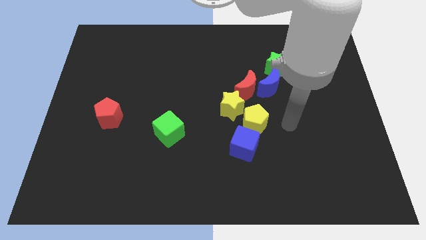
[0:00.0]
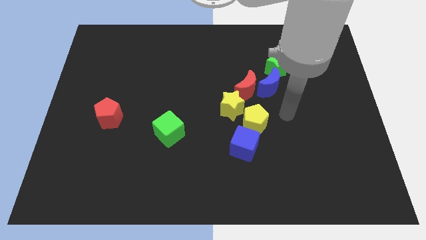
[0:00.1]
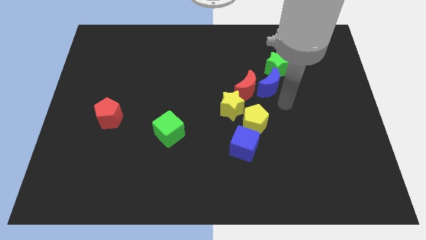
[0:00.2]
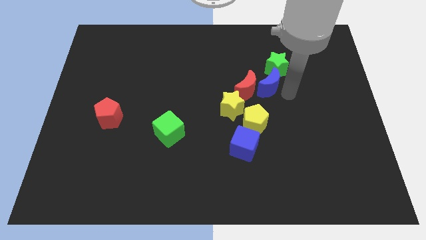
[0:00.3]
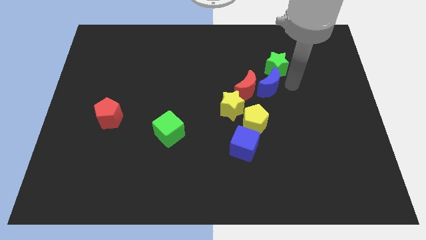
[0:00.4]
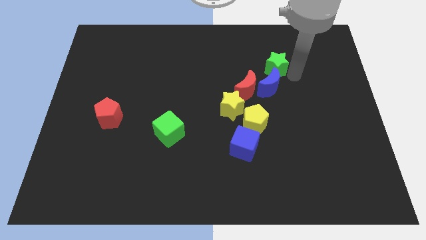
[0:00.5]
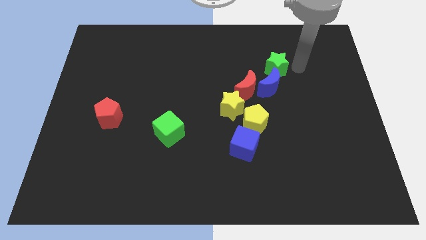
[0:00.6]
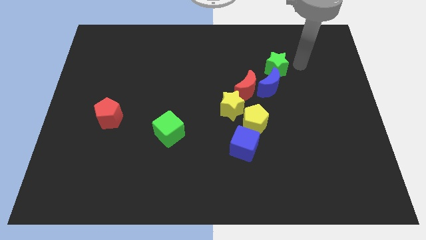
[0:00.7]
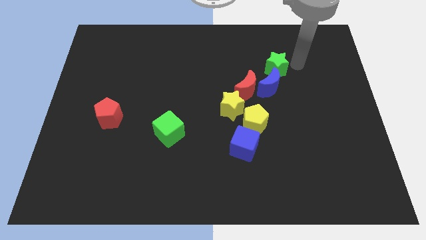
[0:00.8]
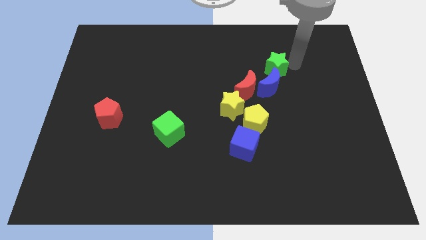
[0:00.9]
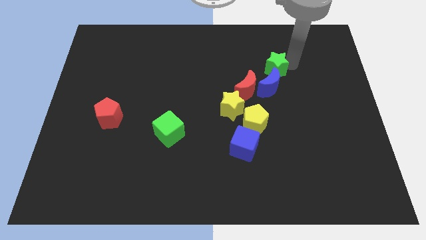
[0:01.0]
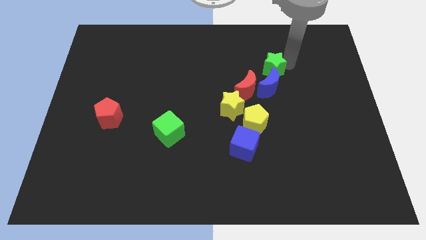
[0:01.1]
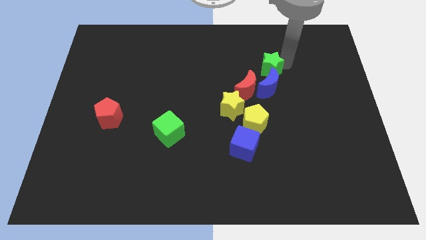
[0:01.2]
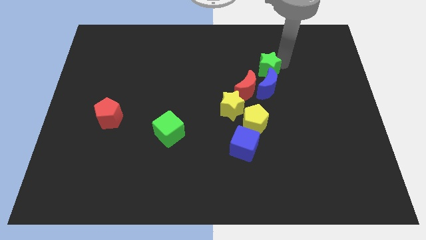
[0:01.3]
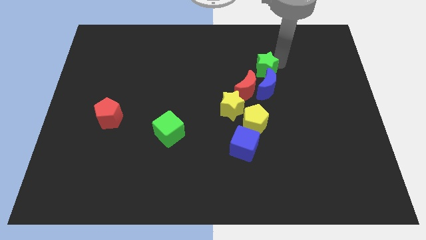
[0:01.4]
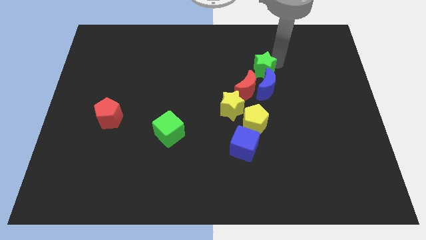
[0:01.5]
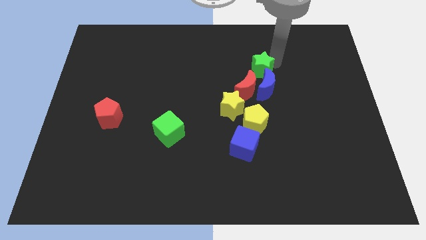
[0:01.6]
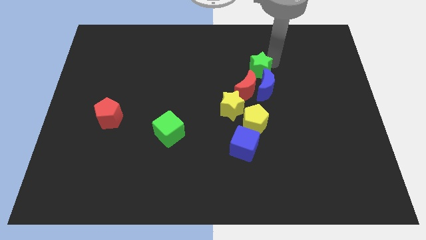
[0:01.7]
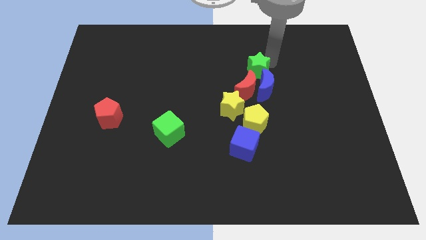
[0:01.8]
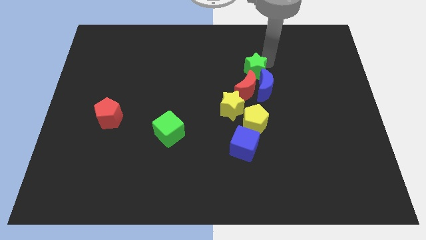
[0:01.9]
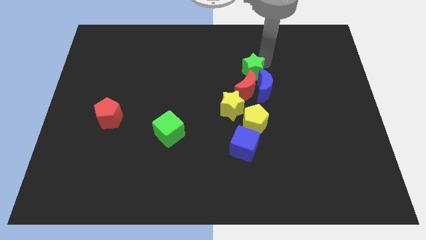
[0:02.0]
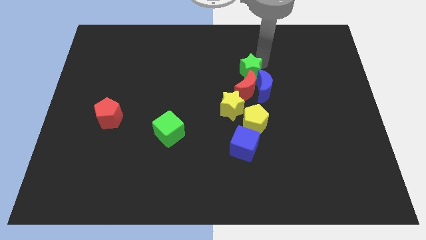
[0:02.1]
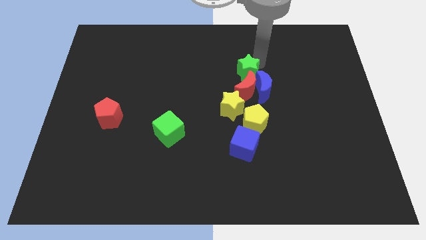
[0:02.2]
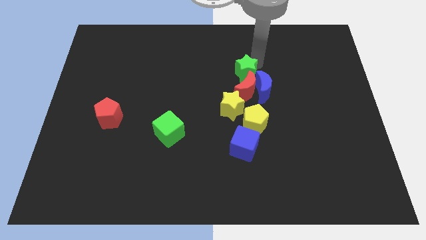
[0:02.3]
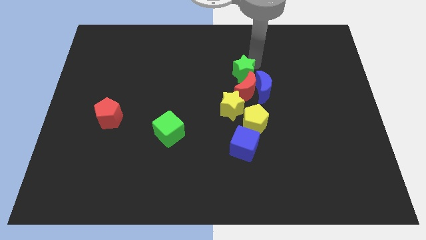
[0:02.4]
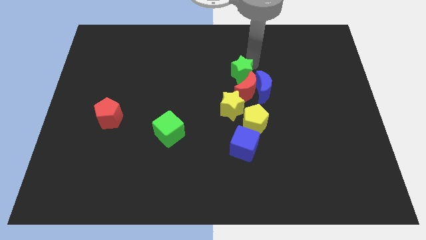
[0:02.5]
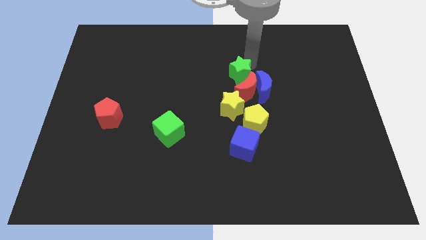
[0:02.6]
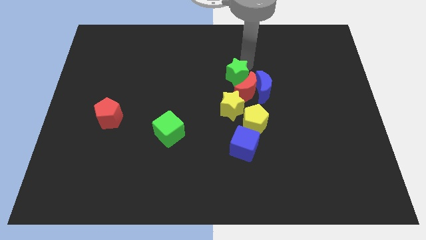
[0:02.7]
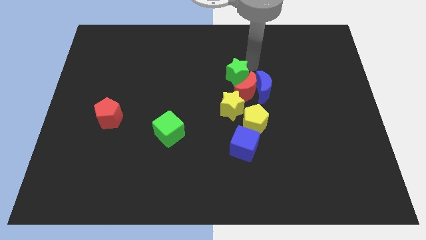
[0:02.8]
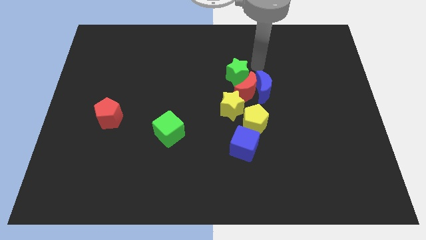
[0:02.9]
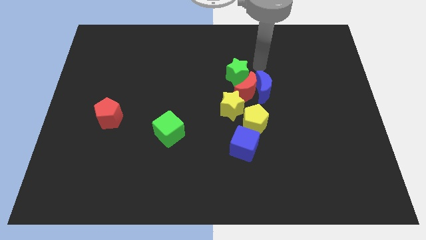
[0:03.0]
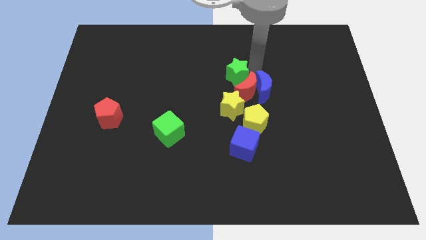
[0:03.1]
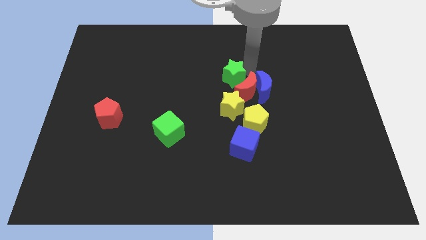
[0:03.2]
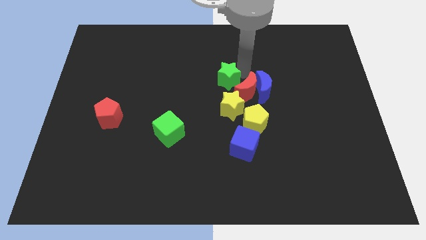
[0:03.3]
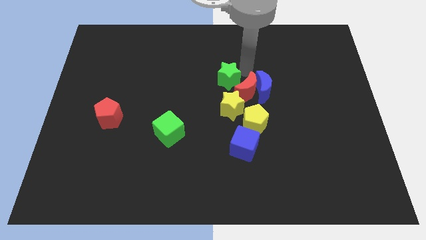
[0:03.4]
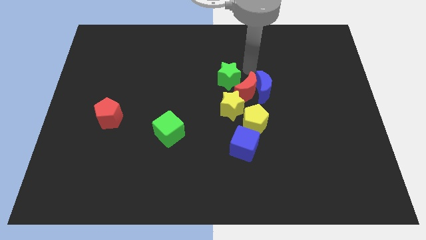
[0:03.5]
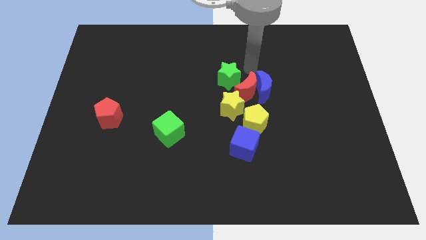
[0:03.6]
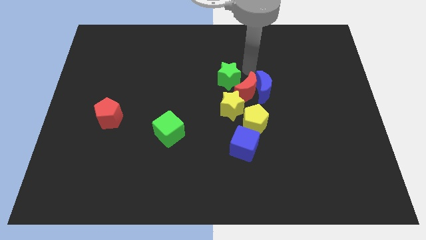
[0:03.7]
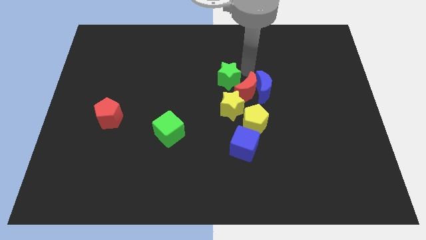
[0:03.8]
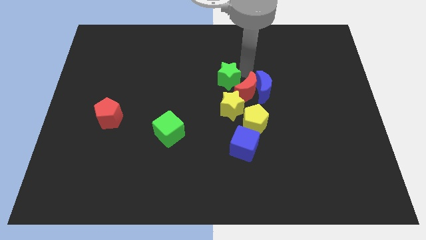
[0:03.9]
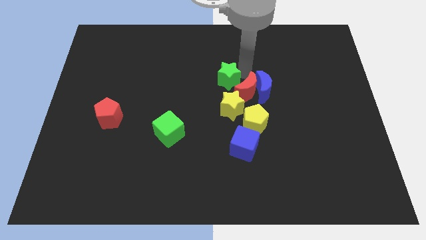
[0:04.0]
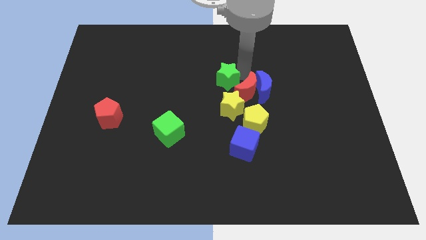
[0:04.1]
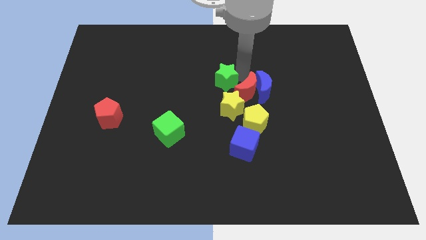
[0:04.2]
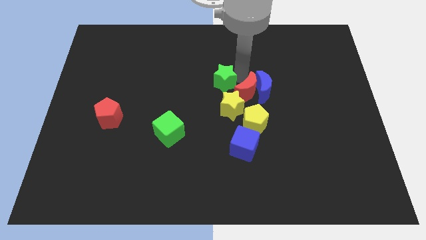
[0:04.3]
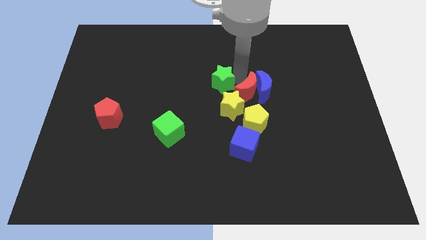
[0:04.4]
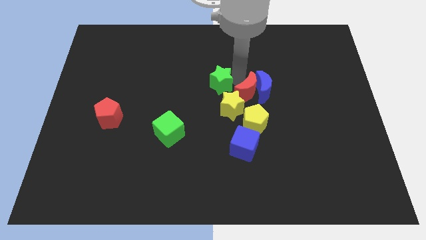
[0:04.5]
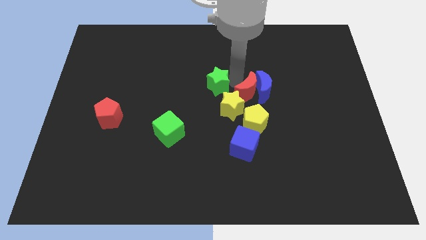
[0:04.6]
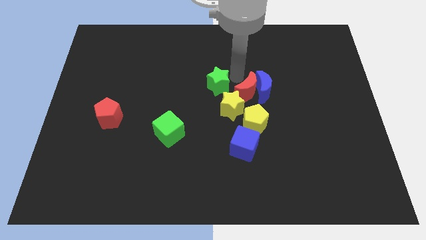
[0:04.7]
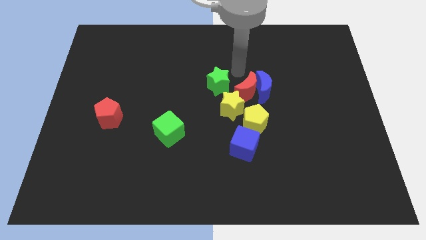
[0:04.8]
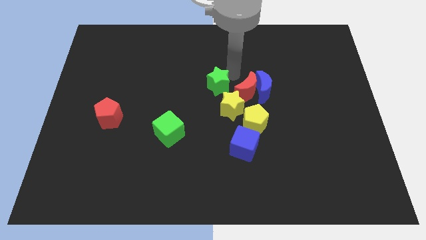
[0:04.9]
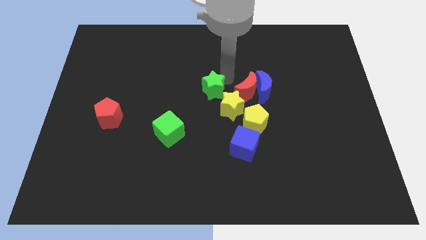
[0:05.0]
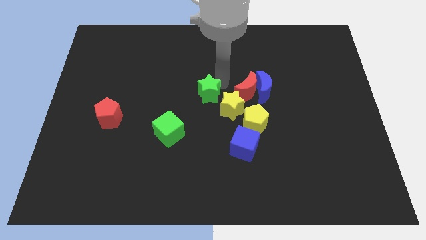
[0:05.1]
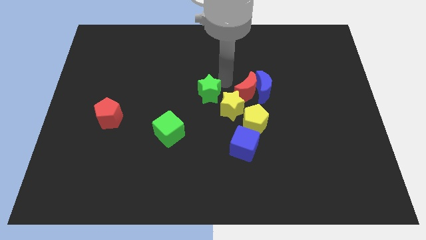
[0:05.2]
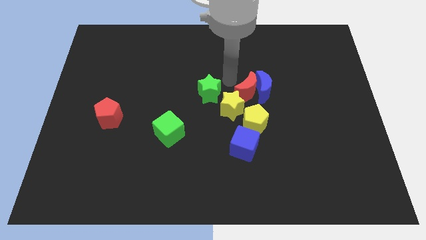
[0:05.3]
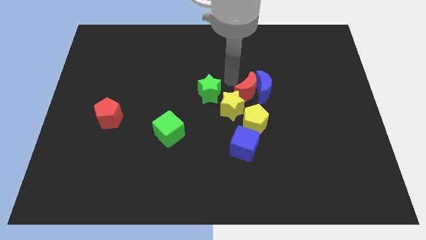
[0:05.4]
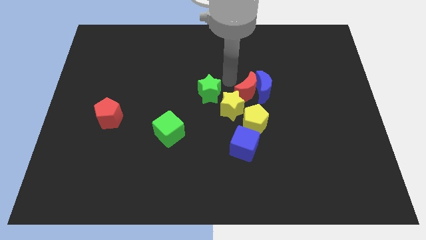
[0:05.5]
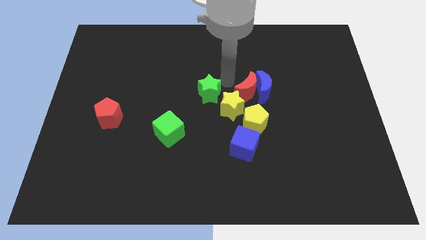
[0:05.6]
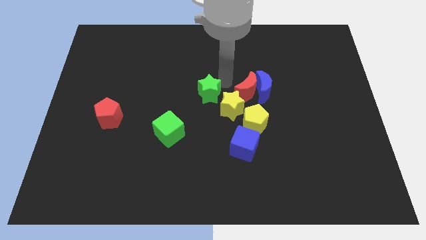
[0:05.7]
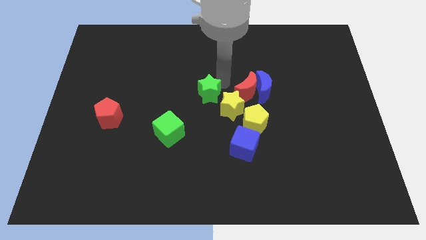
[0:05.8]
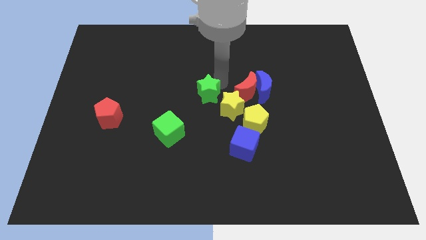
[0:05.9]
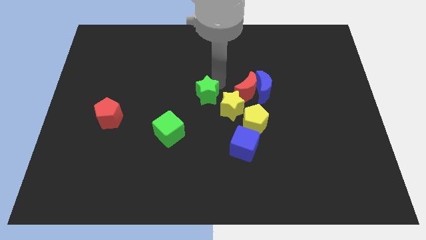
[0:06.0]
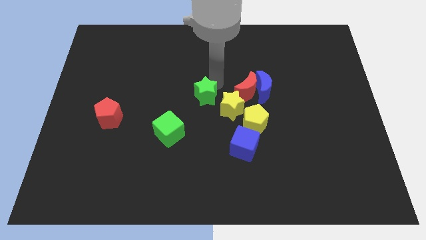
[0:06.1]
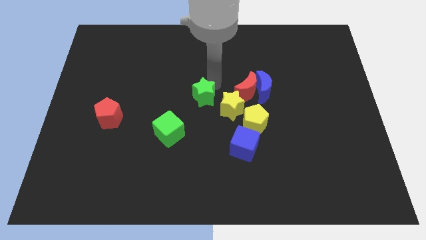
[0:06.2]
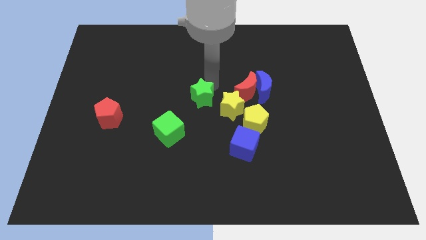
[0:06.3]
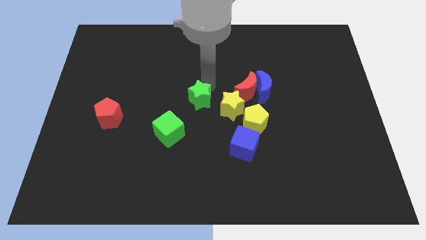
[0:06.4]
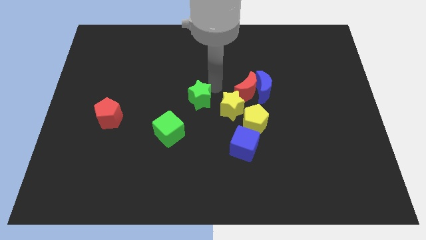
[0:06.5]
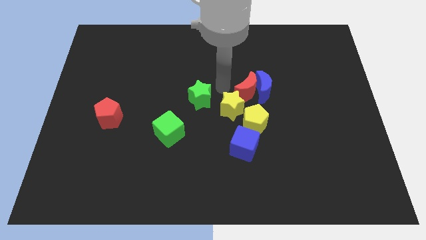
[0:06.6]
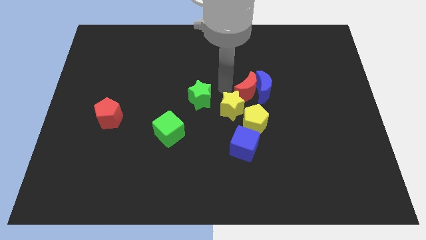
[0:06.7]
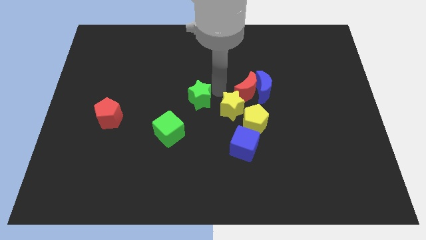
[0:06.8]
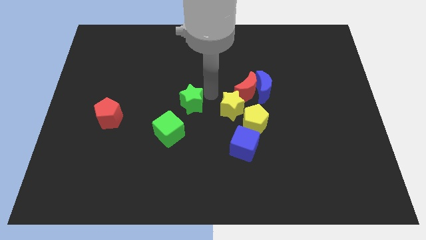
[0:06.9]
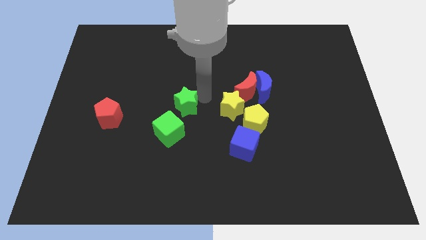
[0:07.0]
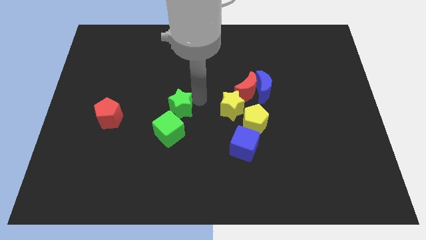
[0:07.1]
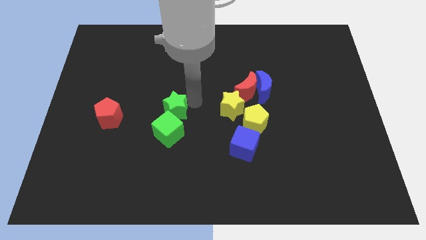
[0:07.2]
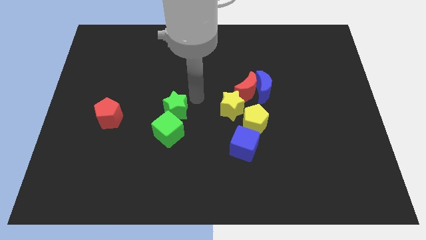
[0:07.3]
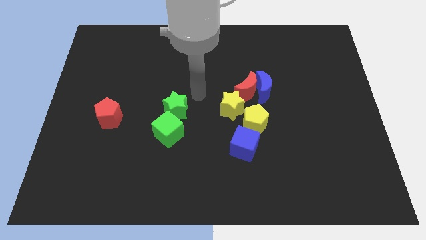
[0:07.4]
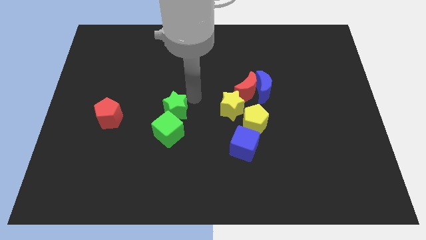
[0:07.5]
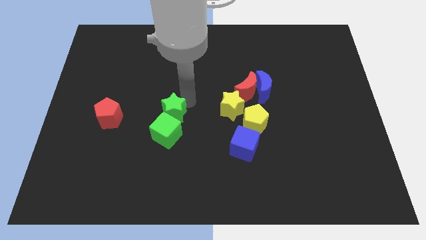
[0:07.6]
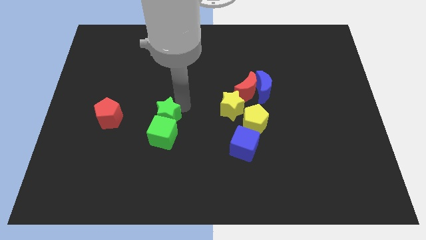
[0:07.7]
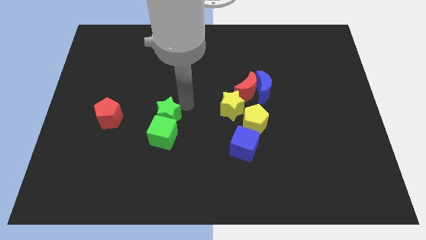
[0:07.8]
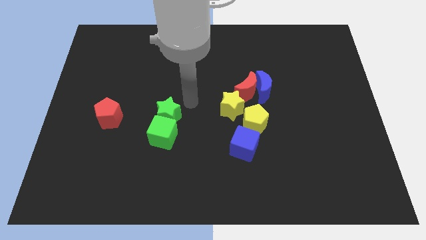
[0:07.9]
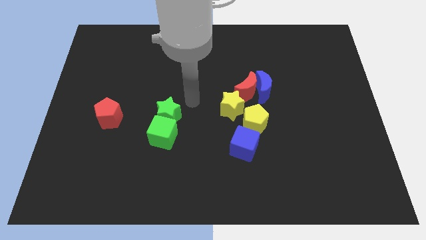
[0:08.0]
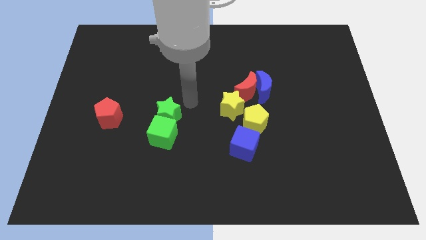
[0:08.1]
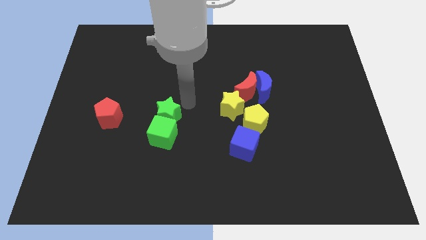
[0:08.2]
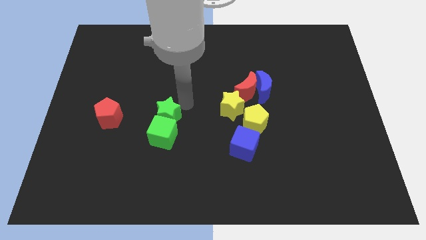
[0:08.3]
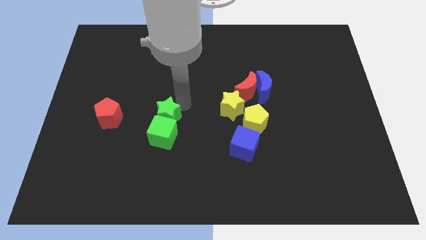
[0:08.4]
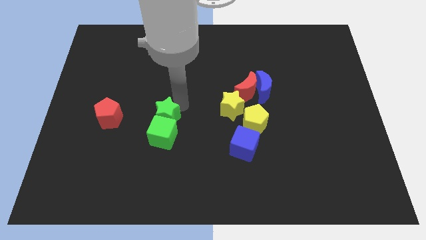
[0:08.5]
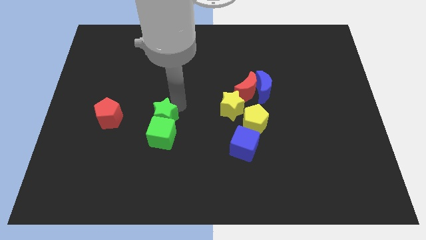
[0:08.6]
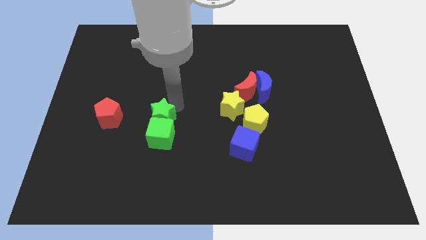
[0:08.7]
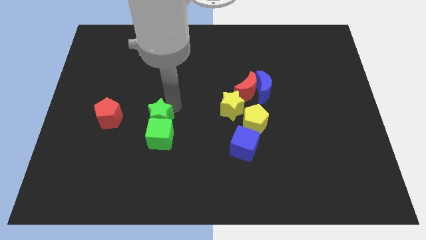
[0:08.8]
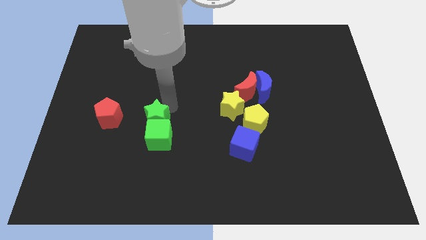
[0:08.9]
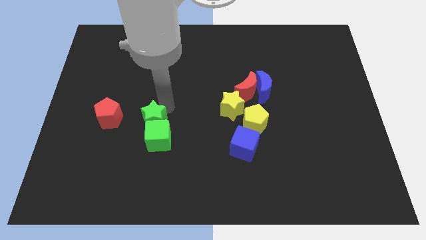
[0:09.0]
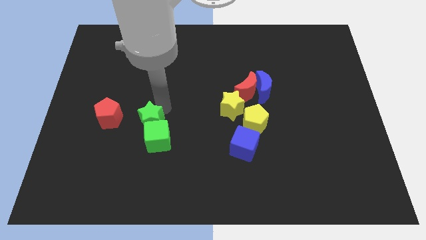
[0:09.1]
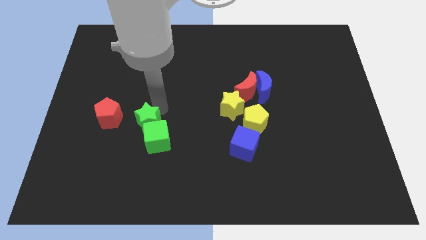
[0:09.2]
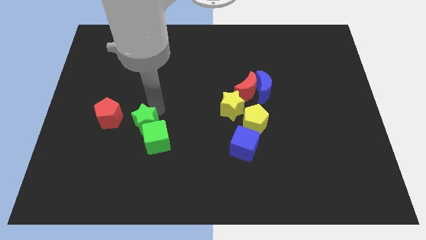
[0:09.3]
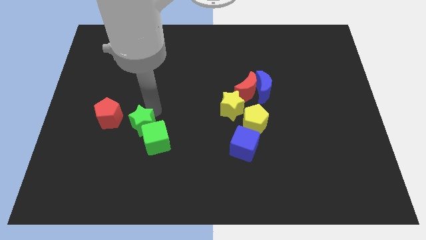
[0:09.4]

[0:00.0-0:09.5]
slide the green star diagonally down and to the right of the red pentagon
